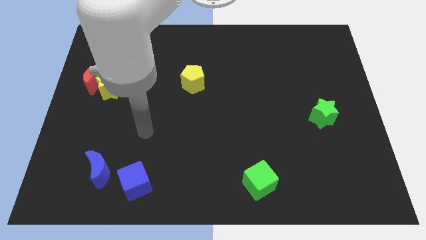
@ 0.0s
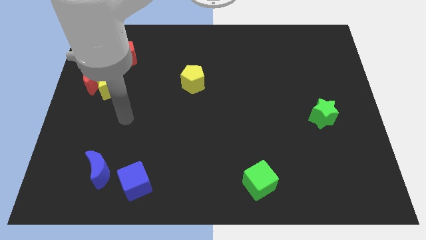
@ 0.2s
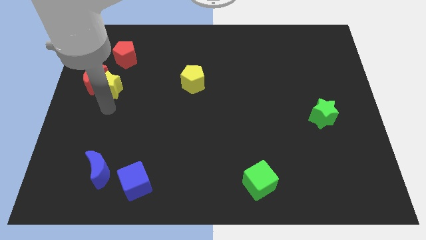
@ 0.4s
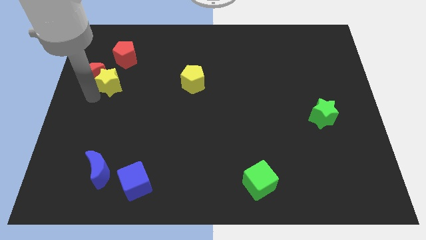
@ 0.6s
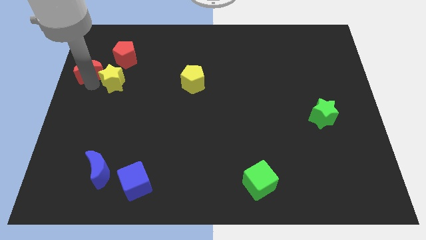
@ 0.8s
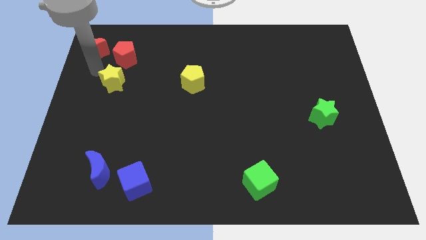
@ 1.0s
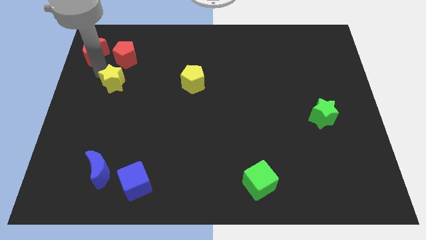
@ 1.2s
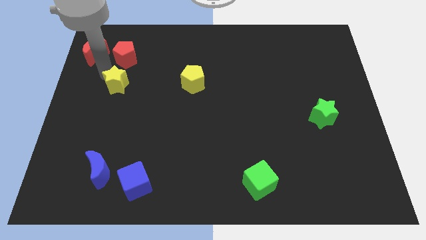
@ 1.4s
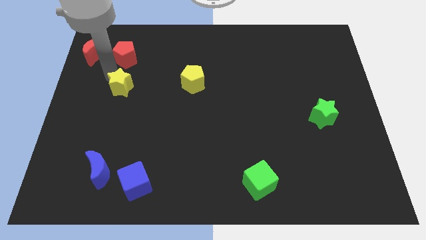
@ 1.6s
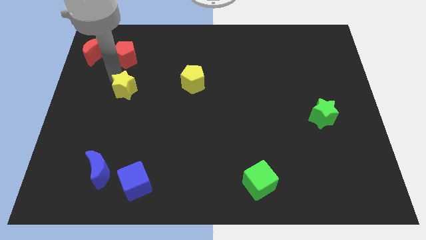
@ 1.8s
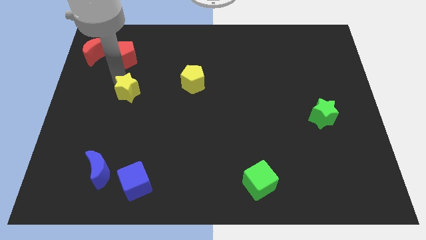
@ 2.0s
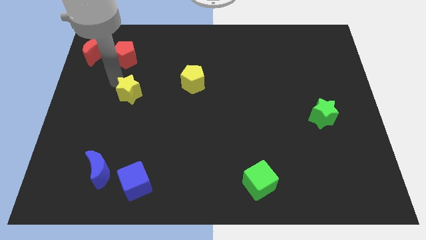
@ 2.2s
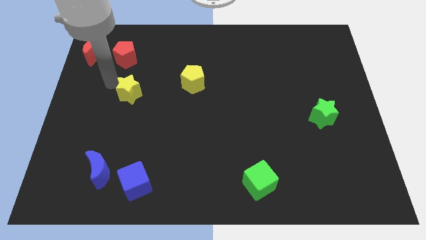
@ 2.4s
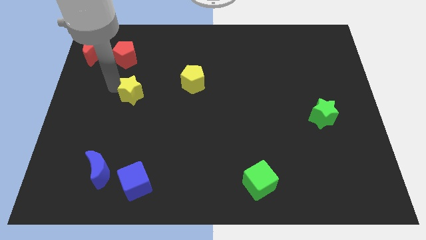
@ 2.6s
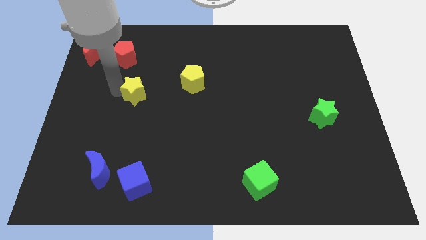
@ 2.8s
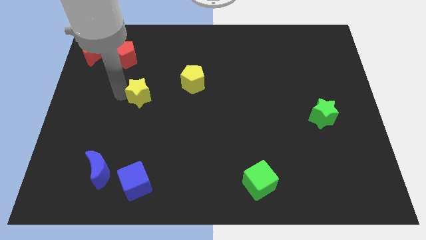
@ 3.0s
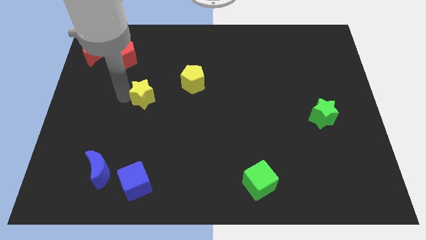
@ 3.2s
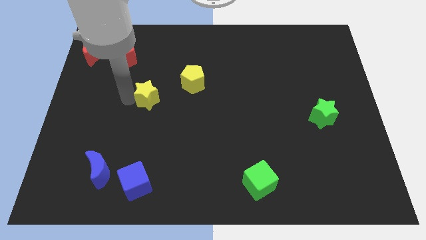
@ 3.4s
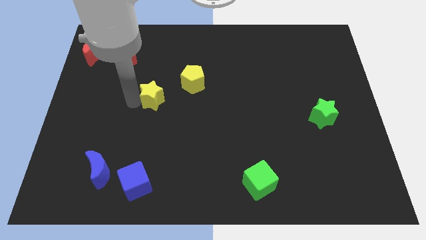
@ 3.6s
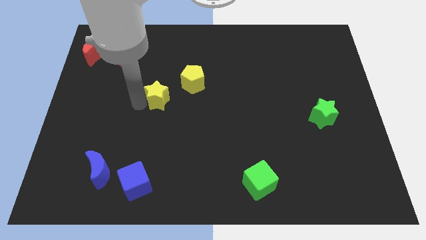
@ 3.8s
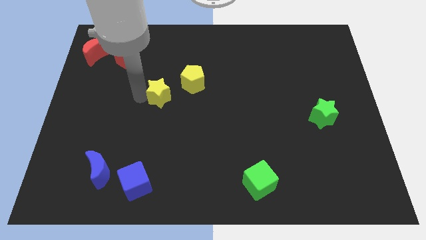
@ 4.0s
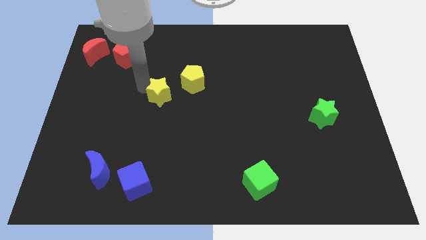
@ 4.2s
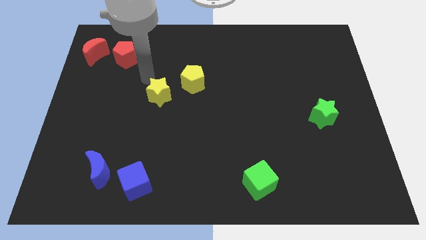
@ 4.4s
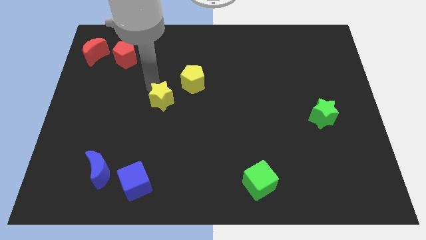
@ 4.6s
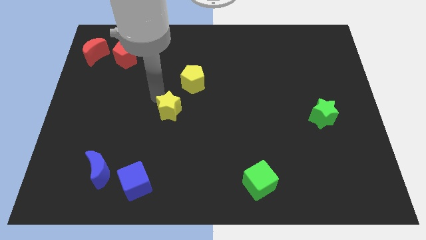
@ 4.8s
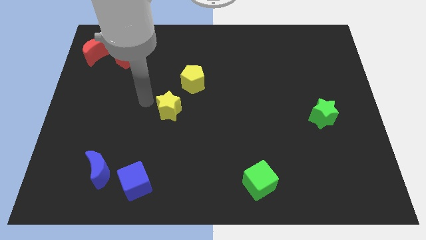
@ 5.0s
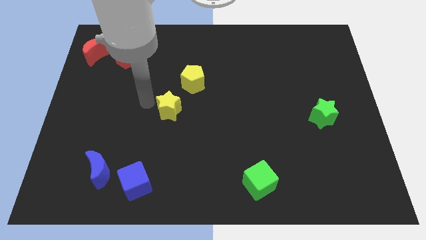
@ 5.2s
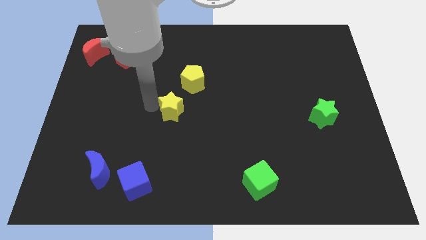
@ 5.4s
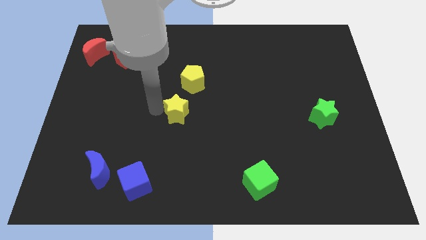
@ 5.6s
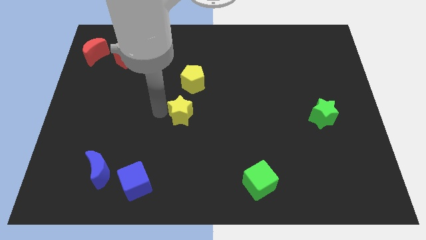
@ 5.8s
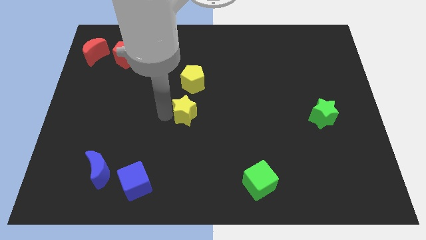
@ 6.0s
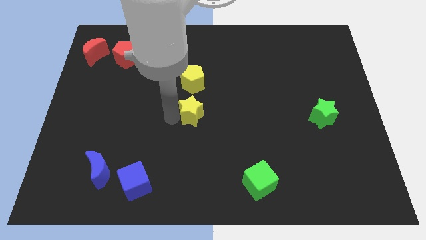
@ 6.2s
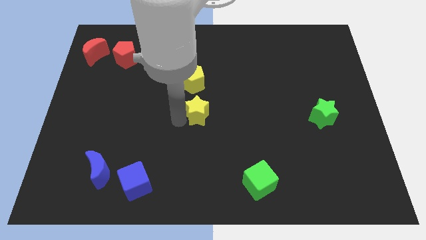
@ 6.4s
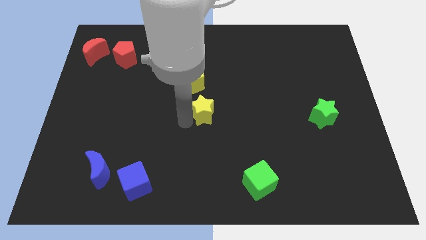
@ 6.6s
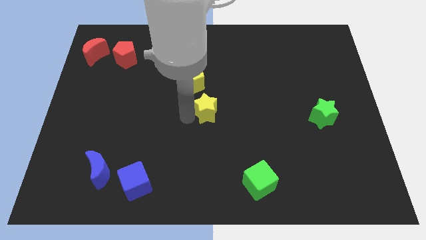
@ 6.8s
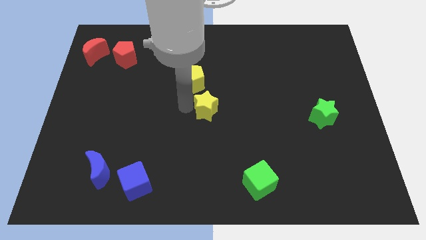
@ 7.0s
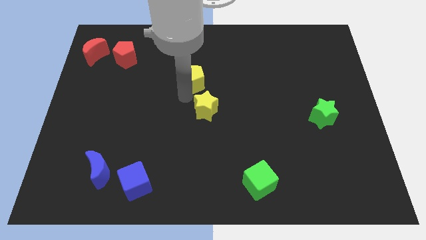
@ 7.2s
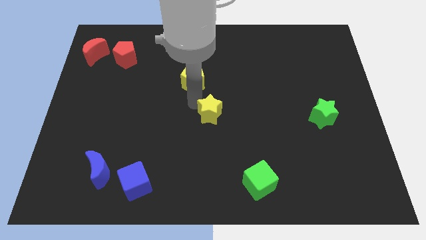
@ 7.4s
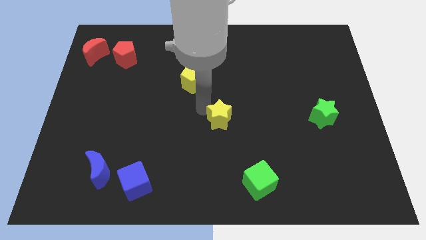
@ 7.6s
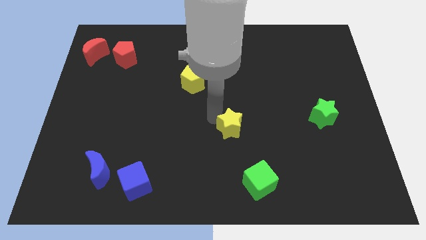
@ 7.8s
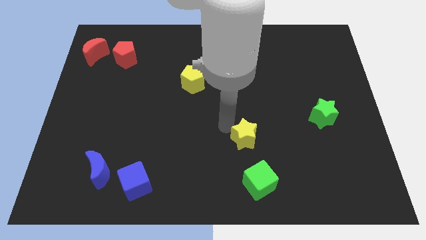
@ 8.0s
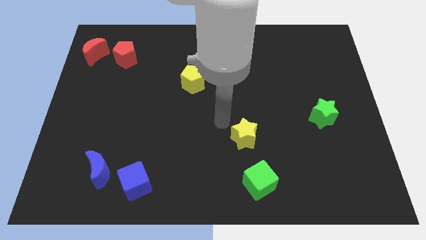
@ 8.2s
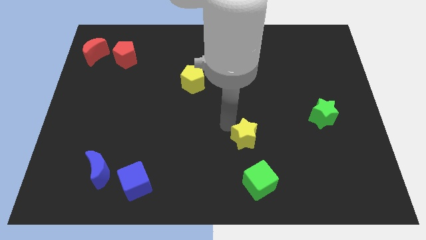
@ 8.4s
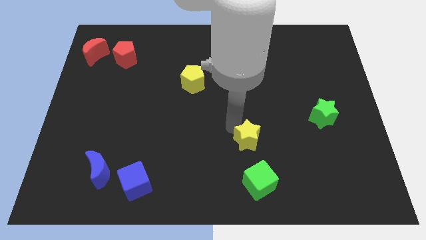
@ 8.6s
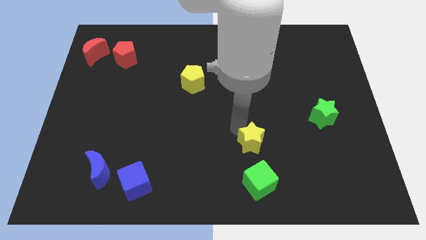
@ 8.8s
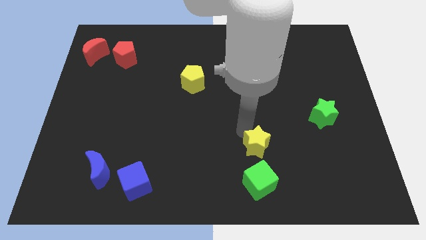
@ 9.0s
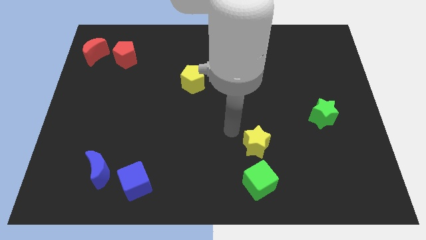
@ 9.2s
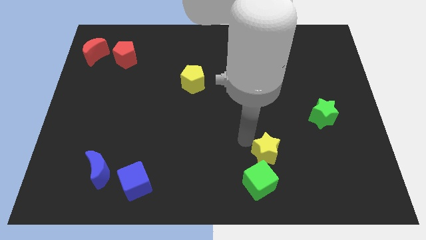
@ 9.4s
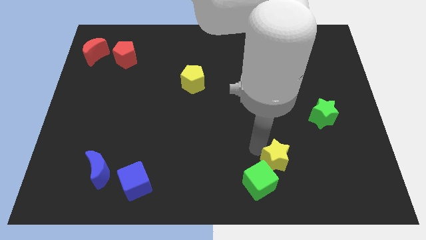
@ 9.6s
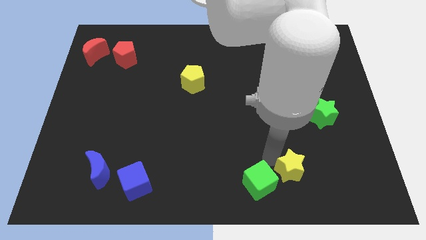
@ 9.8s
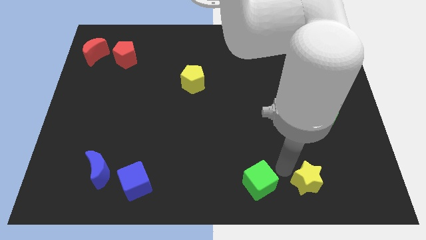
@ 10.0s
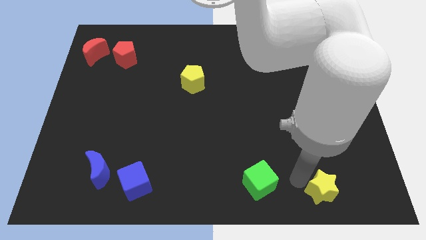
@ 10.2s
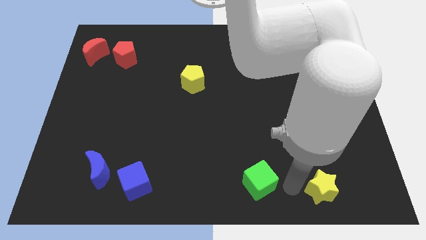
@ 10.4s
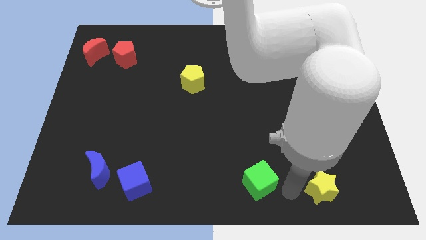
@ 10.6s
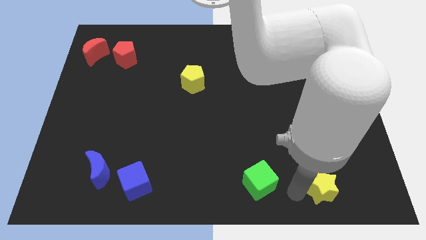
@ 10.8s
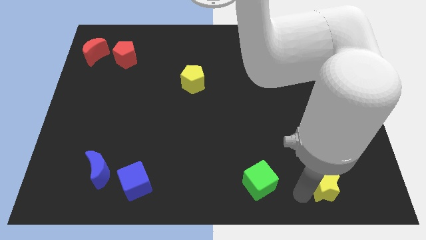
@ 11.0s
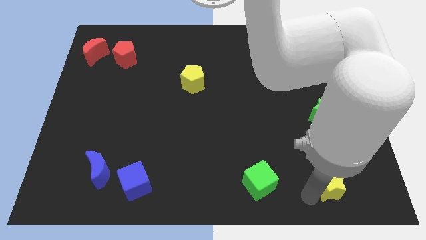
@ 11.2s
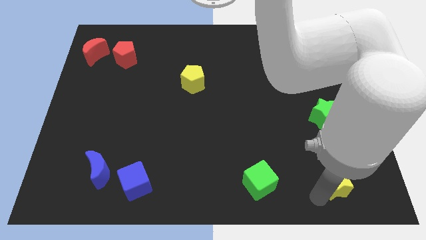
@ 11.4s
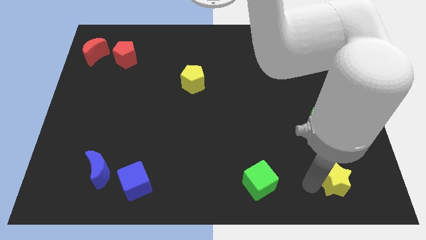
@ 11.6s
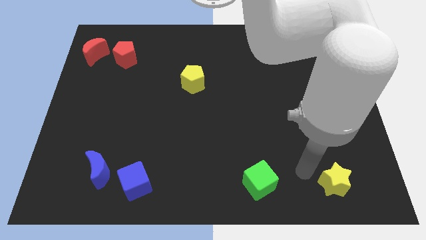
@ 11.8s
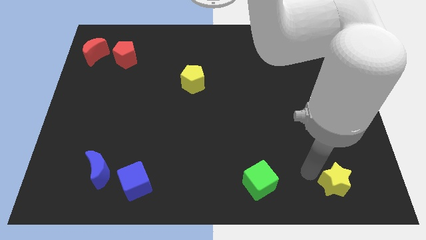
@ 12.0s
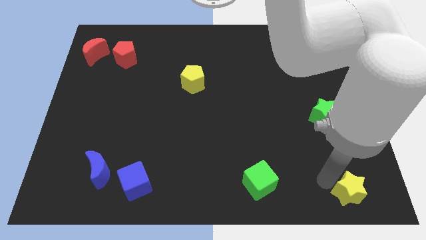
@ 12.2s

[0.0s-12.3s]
move the yellow star to the bottom right corner

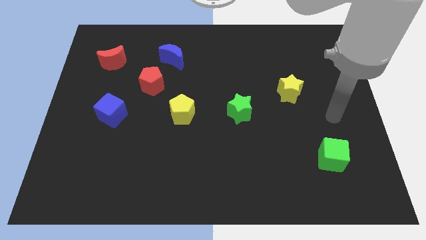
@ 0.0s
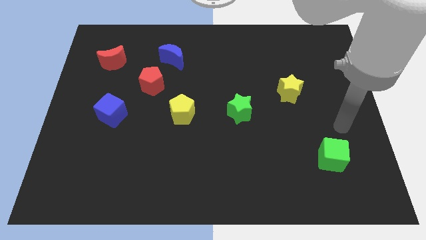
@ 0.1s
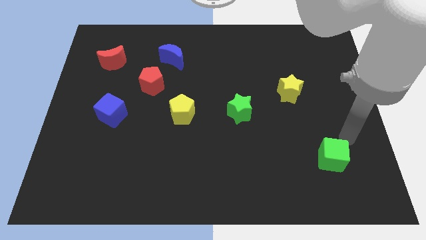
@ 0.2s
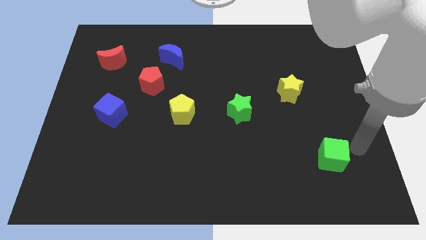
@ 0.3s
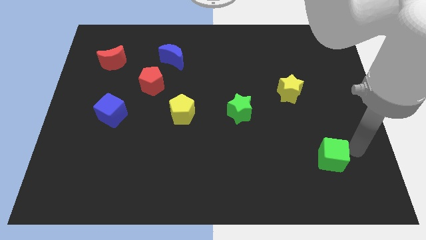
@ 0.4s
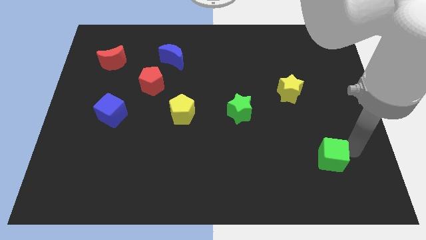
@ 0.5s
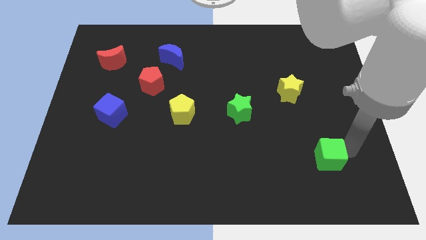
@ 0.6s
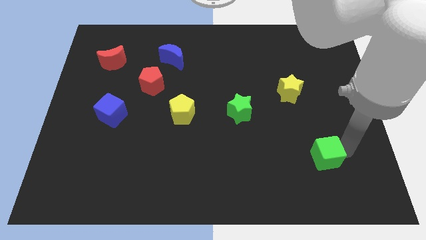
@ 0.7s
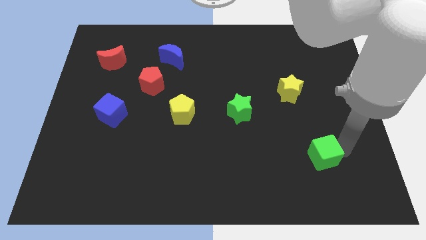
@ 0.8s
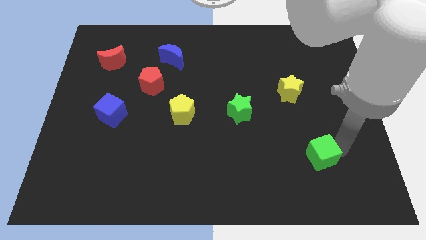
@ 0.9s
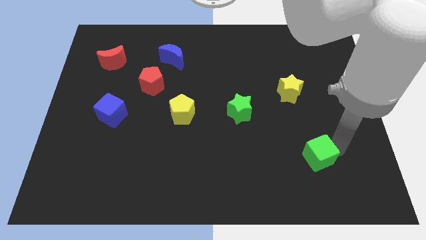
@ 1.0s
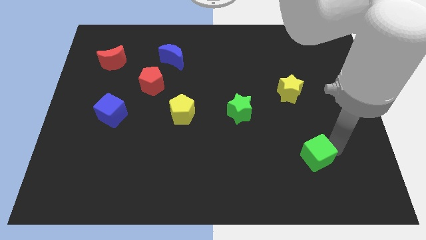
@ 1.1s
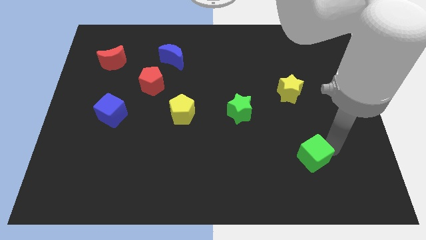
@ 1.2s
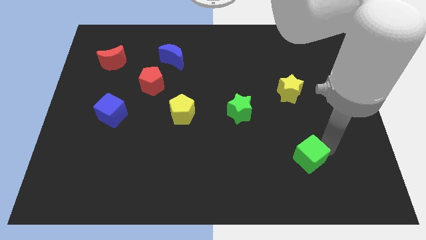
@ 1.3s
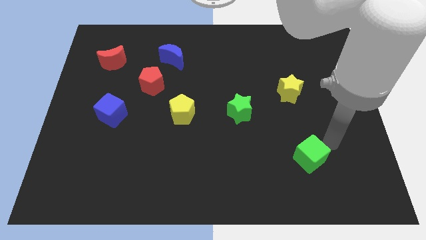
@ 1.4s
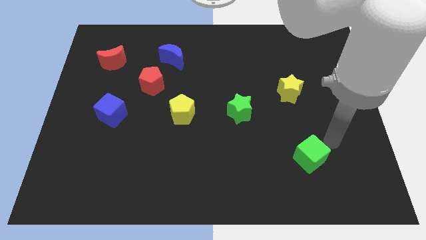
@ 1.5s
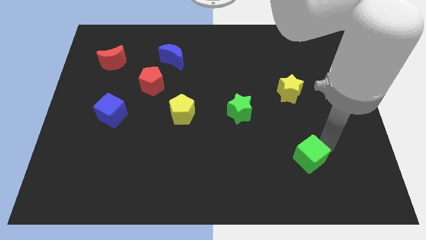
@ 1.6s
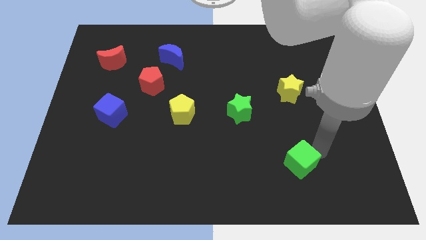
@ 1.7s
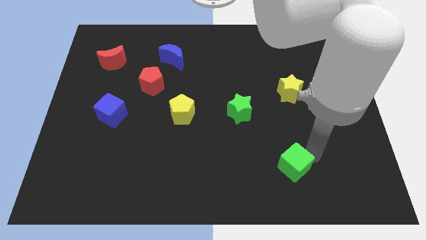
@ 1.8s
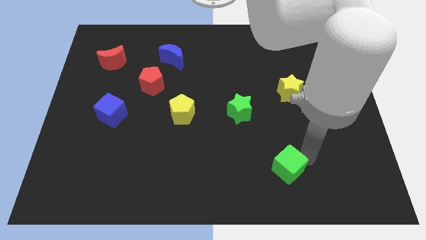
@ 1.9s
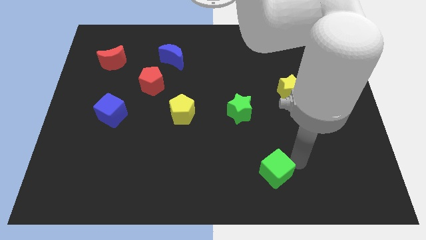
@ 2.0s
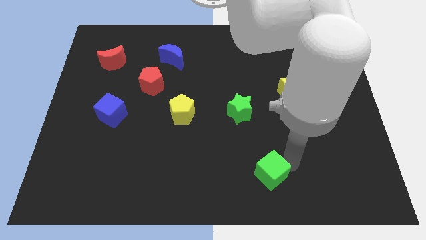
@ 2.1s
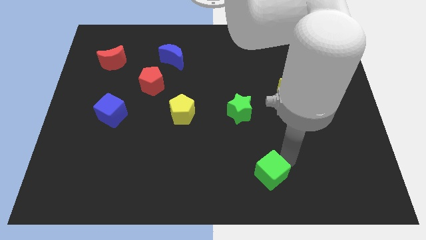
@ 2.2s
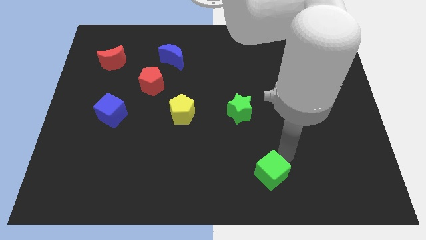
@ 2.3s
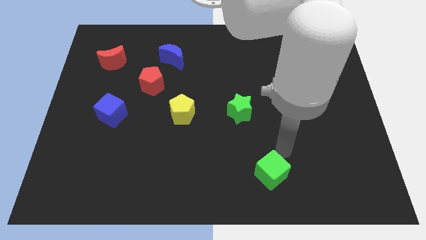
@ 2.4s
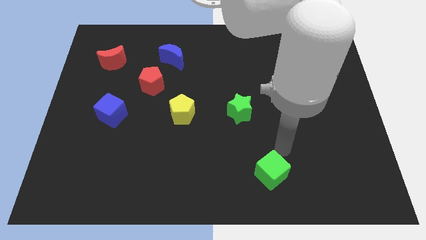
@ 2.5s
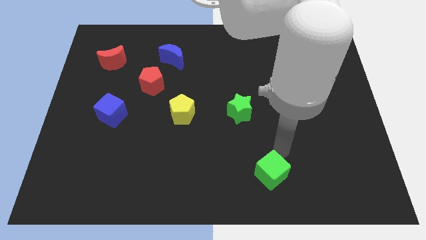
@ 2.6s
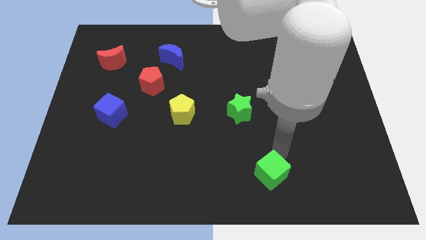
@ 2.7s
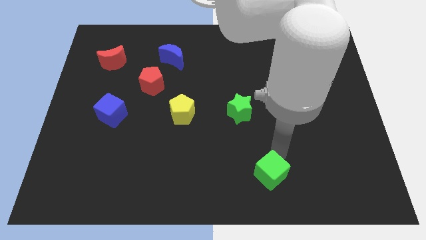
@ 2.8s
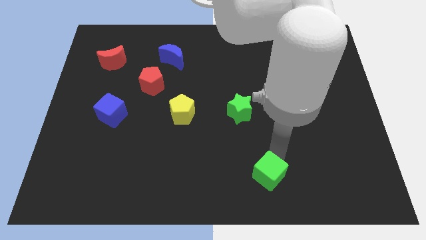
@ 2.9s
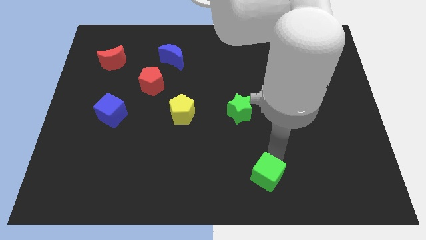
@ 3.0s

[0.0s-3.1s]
slide the green cube to the bottom side
